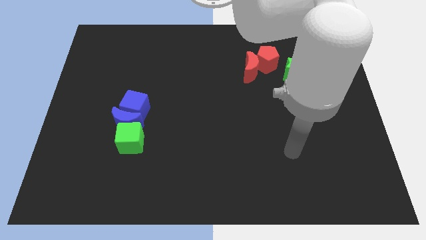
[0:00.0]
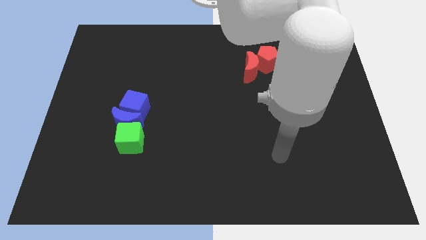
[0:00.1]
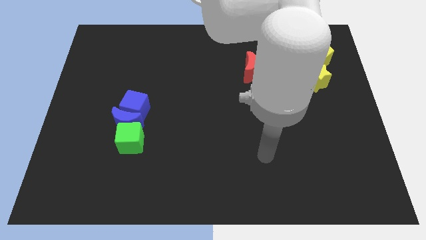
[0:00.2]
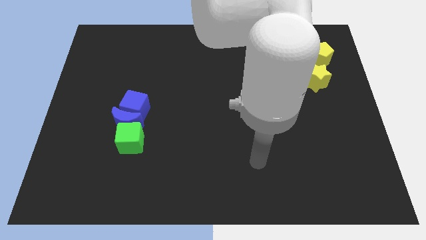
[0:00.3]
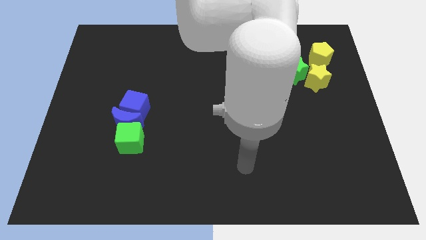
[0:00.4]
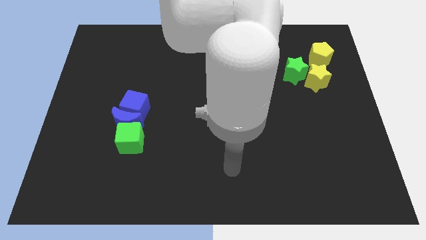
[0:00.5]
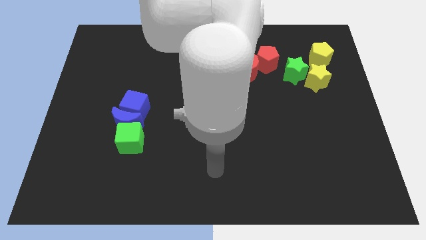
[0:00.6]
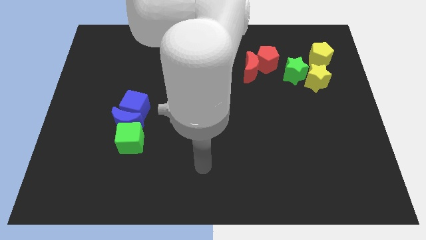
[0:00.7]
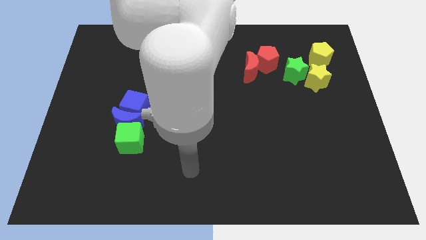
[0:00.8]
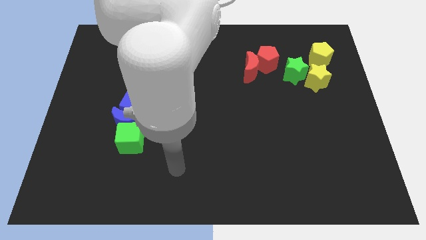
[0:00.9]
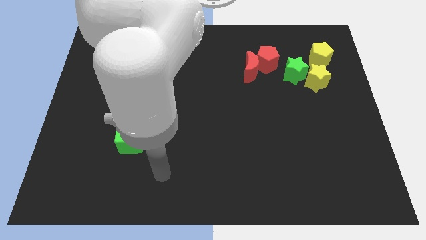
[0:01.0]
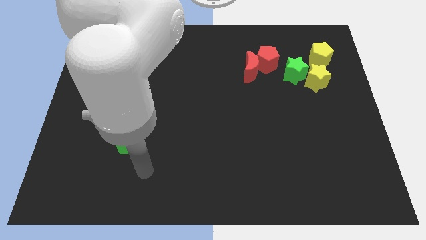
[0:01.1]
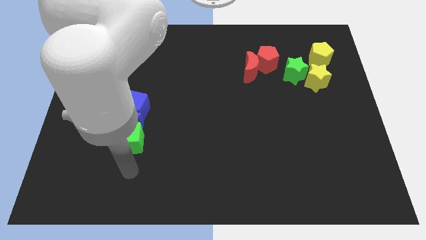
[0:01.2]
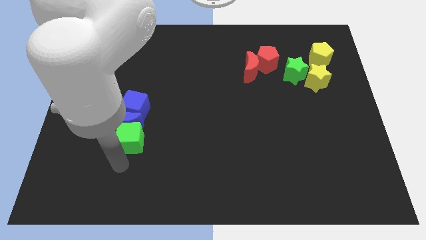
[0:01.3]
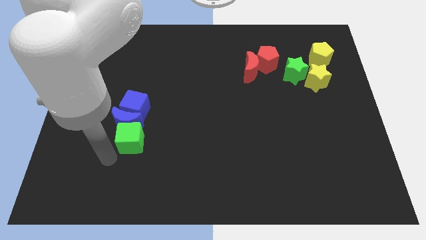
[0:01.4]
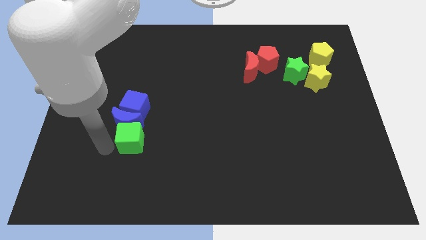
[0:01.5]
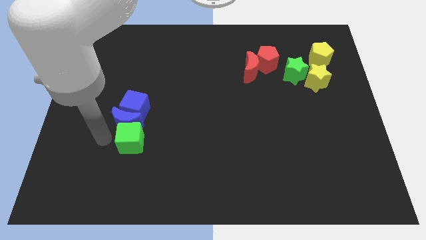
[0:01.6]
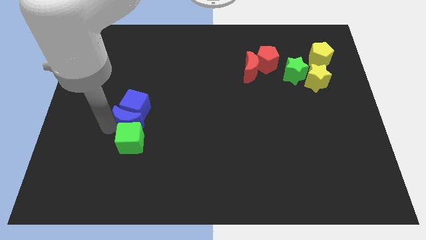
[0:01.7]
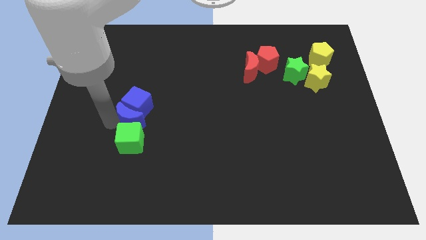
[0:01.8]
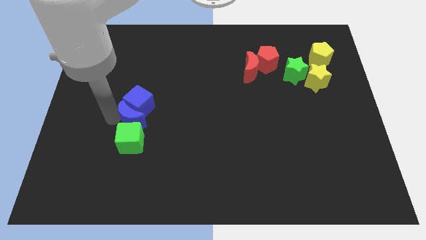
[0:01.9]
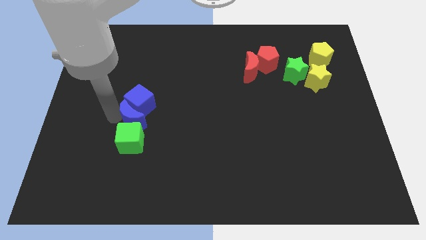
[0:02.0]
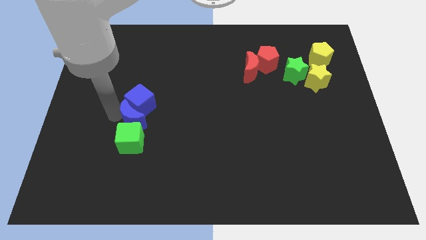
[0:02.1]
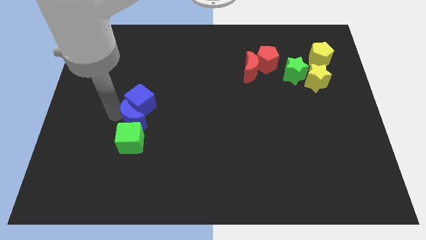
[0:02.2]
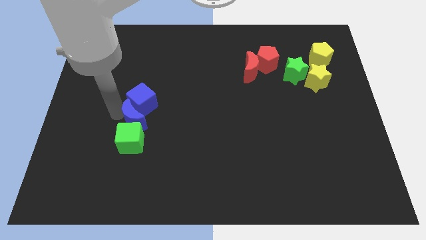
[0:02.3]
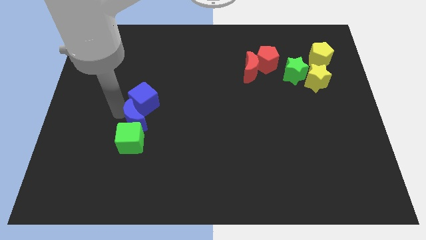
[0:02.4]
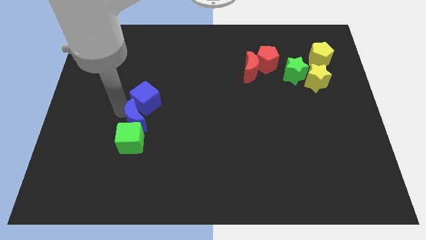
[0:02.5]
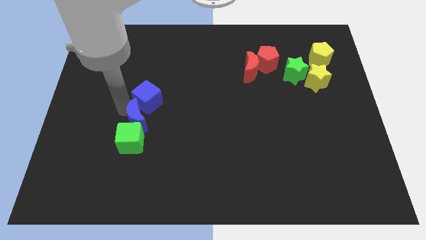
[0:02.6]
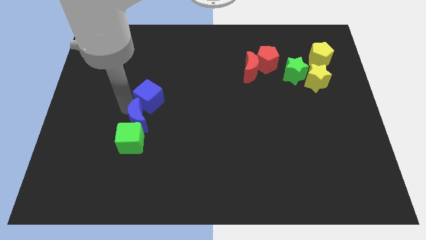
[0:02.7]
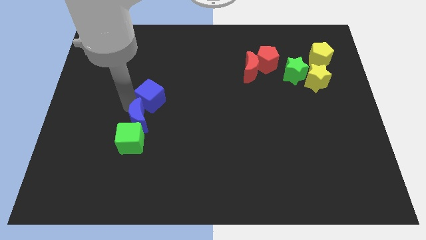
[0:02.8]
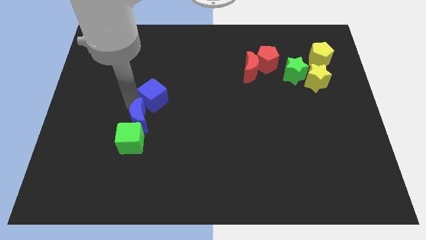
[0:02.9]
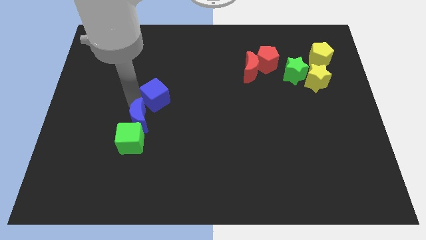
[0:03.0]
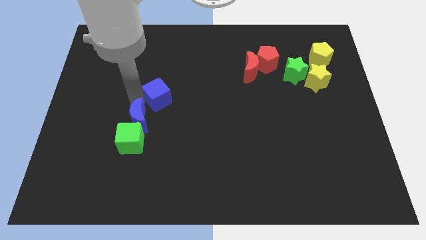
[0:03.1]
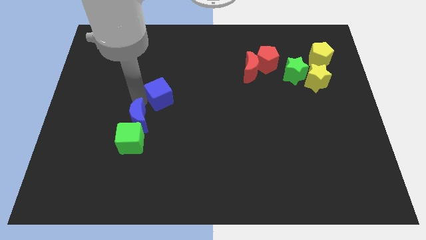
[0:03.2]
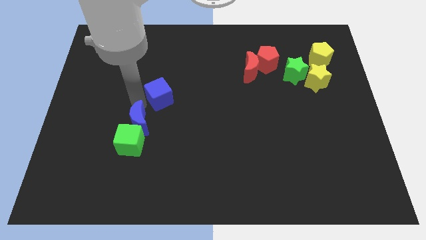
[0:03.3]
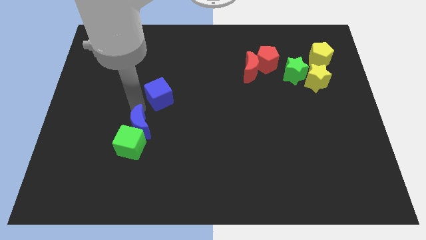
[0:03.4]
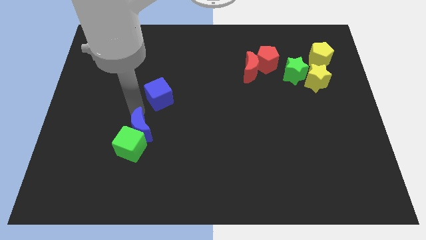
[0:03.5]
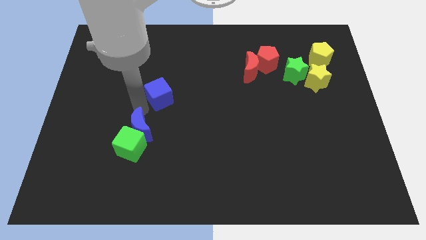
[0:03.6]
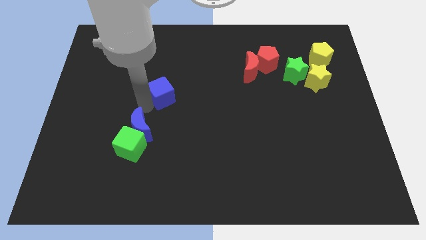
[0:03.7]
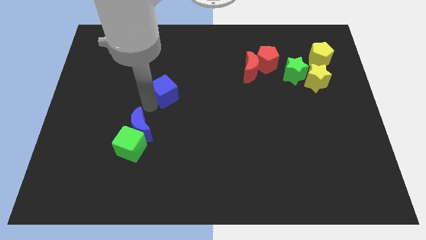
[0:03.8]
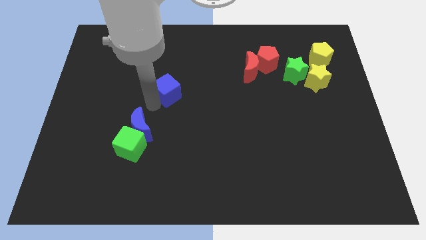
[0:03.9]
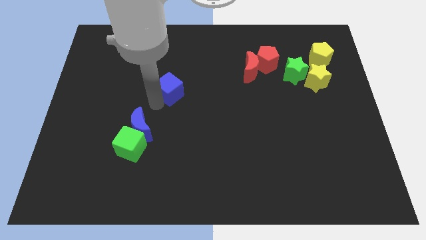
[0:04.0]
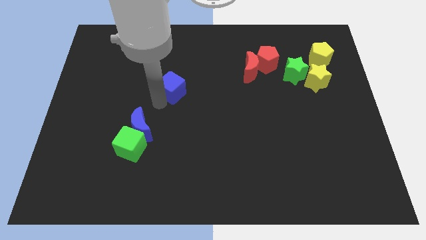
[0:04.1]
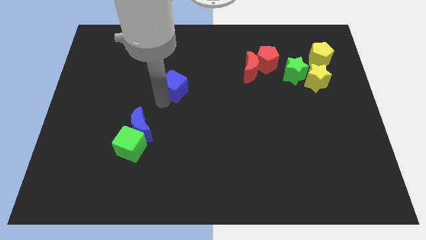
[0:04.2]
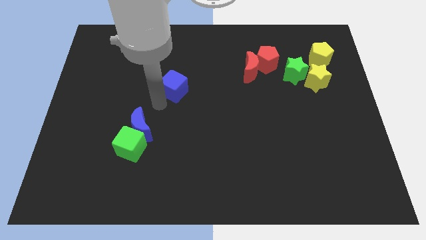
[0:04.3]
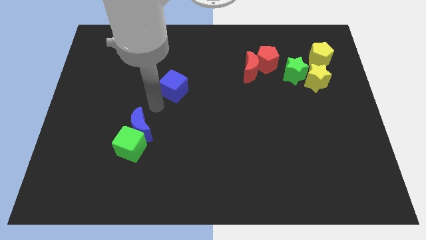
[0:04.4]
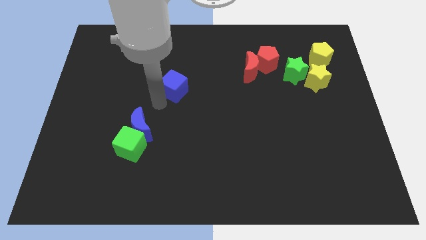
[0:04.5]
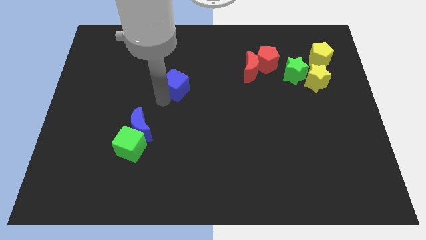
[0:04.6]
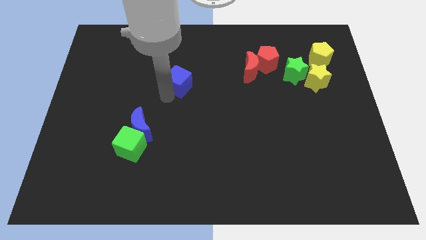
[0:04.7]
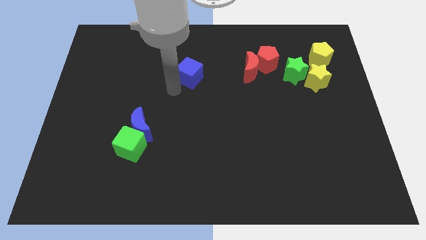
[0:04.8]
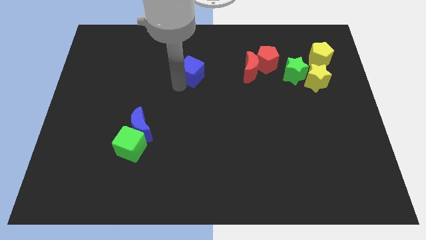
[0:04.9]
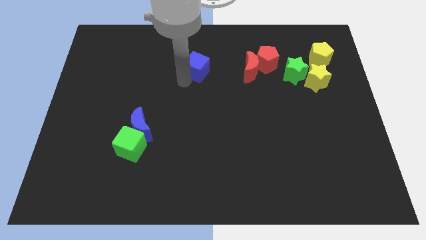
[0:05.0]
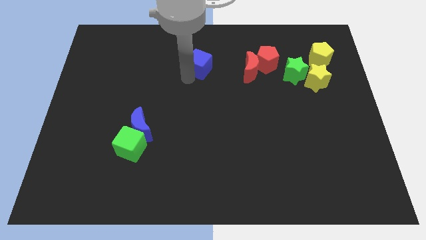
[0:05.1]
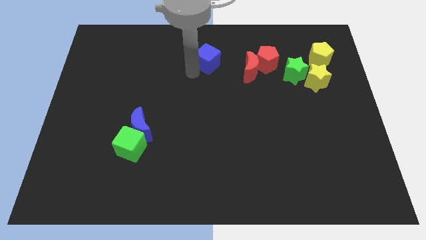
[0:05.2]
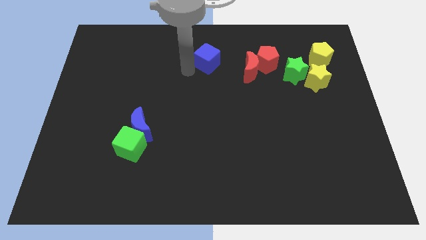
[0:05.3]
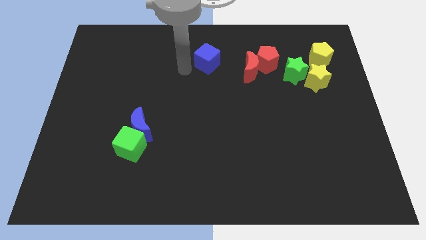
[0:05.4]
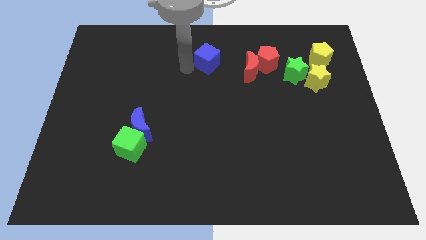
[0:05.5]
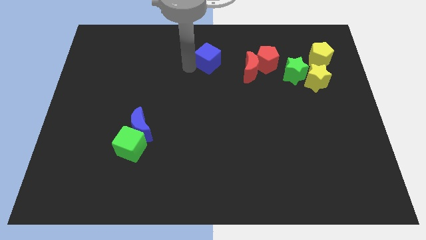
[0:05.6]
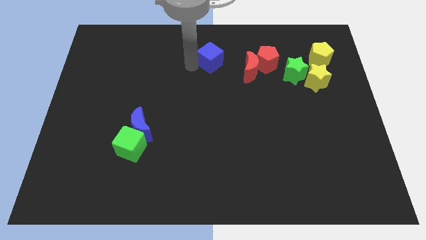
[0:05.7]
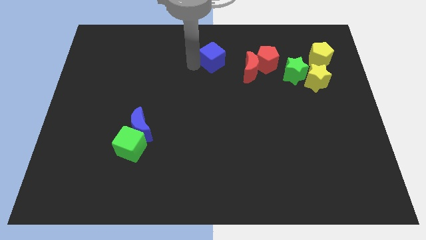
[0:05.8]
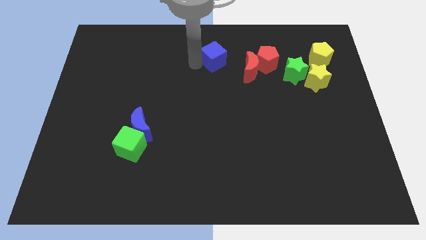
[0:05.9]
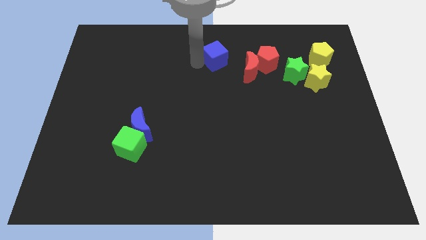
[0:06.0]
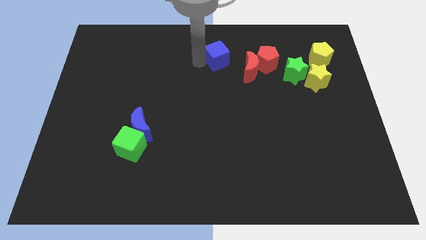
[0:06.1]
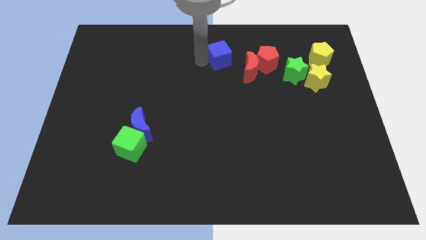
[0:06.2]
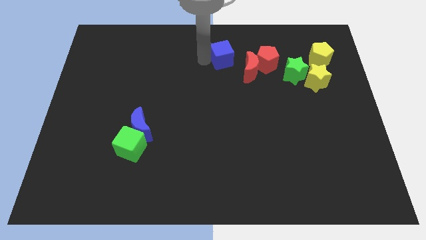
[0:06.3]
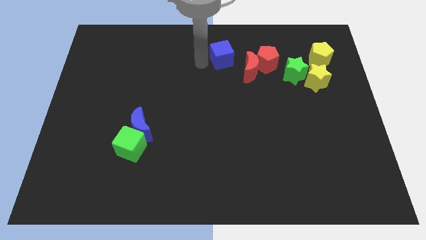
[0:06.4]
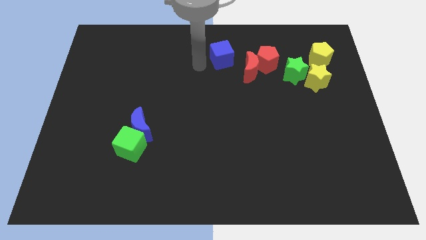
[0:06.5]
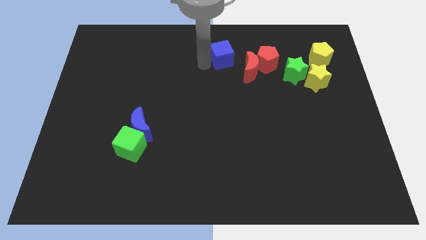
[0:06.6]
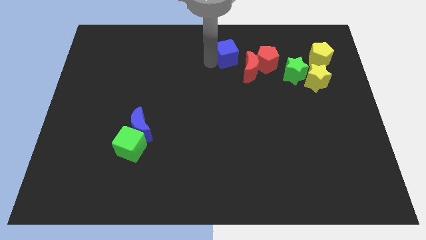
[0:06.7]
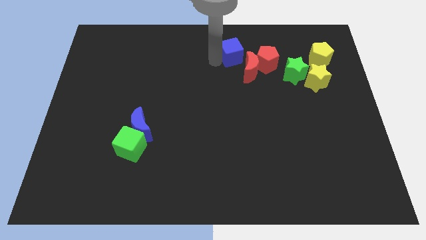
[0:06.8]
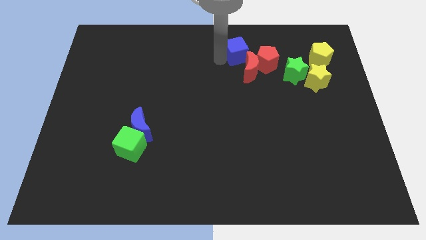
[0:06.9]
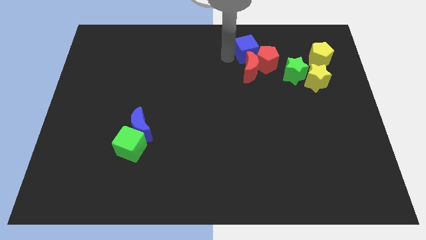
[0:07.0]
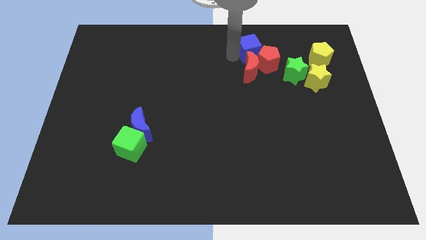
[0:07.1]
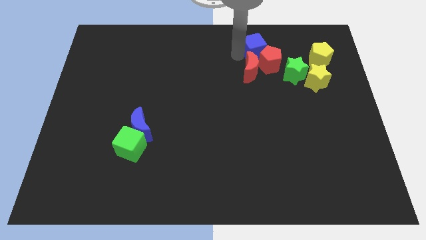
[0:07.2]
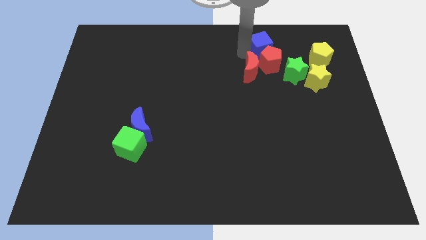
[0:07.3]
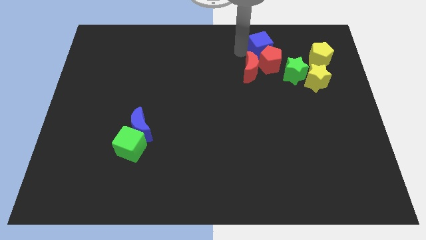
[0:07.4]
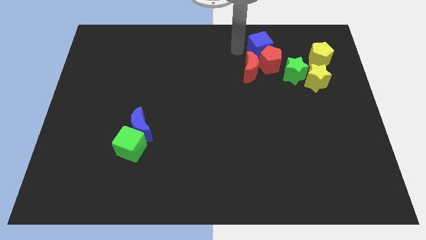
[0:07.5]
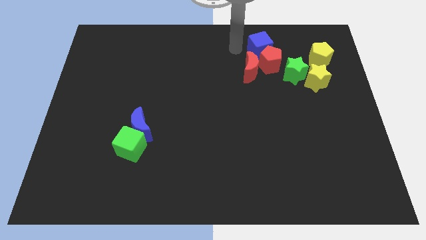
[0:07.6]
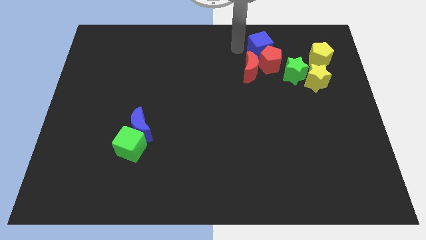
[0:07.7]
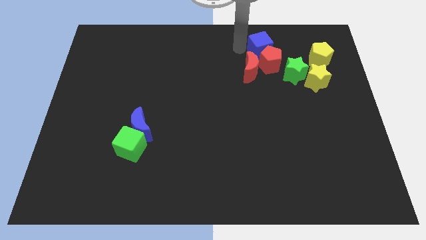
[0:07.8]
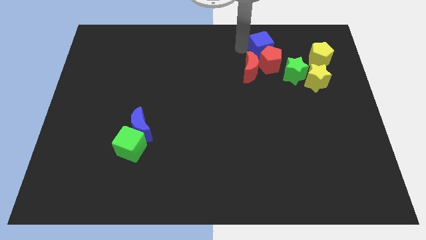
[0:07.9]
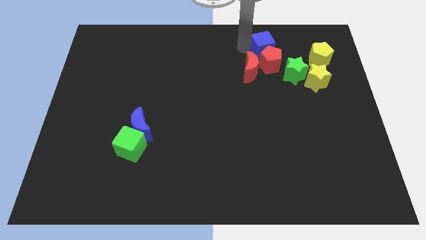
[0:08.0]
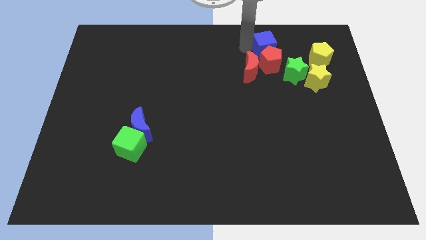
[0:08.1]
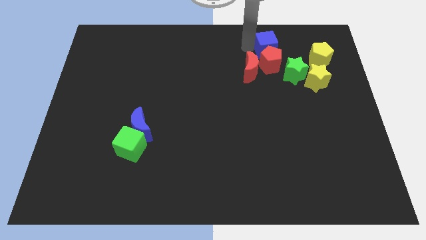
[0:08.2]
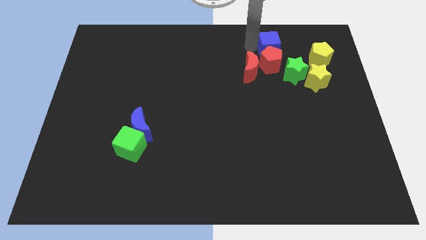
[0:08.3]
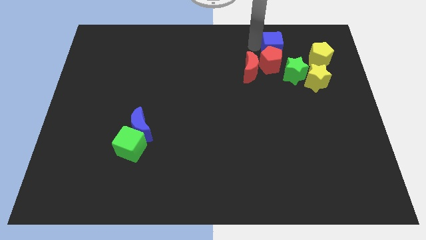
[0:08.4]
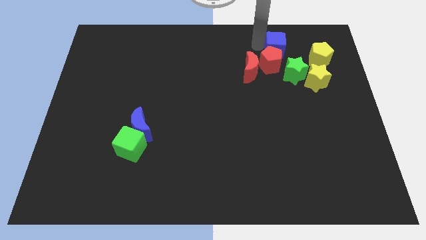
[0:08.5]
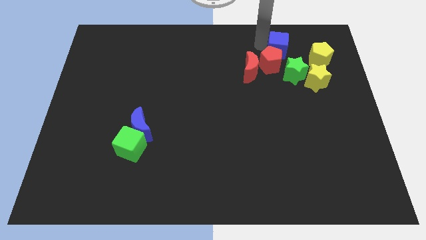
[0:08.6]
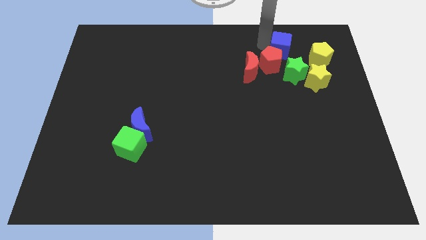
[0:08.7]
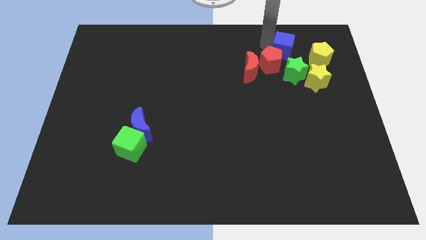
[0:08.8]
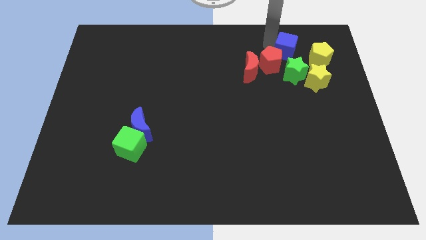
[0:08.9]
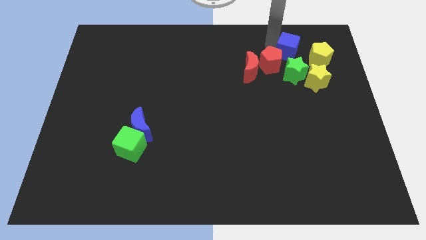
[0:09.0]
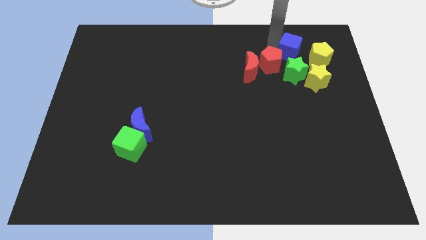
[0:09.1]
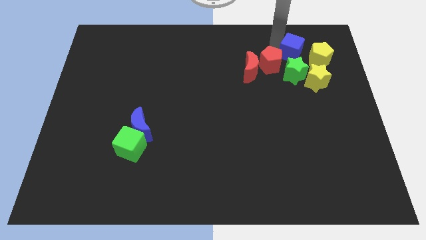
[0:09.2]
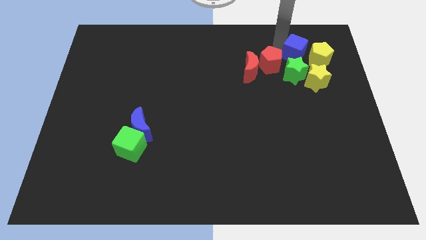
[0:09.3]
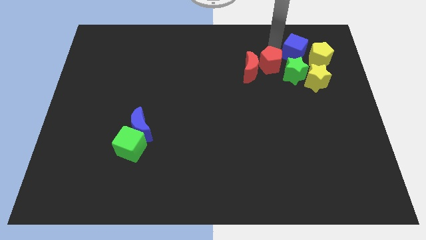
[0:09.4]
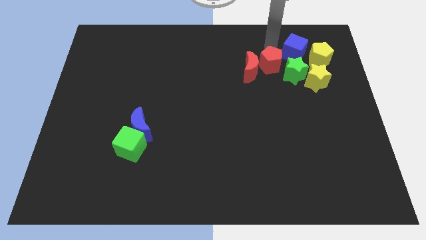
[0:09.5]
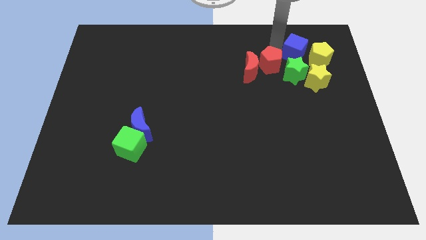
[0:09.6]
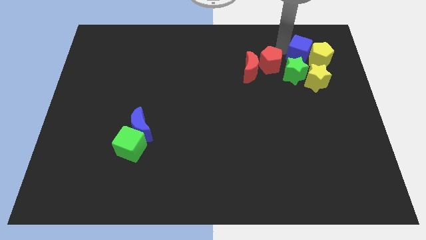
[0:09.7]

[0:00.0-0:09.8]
slide the blue cube to the yellow pentagon
